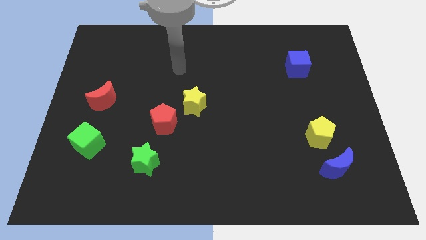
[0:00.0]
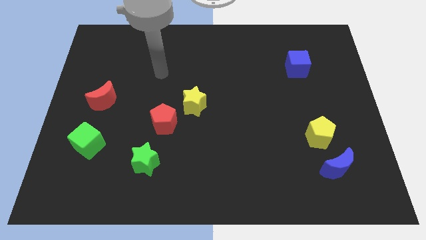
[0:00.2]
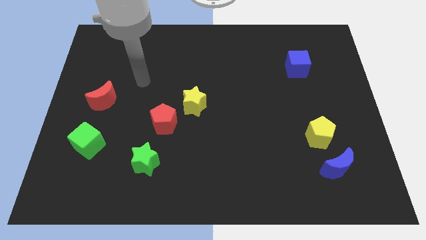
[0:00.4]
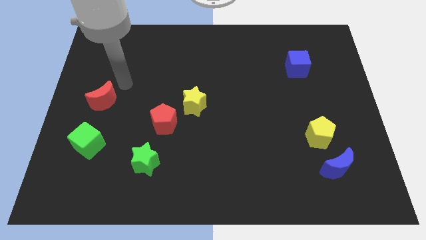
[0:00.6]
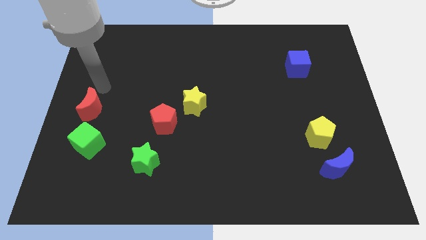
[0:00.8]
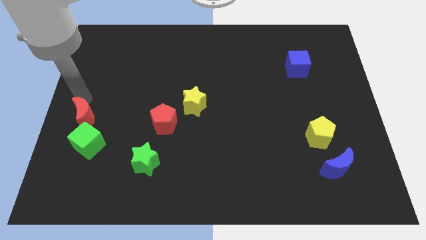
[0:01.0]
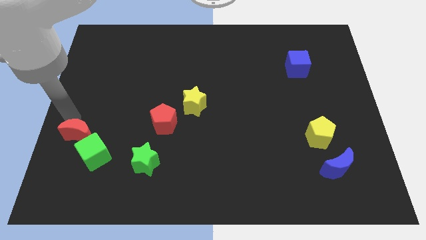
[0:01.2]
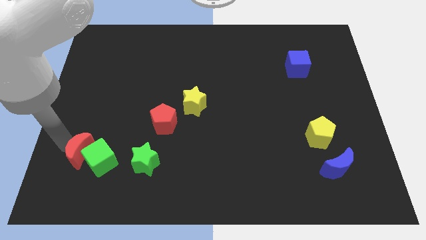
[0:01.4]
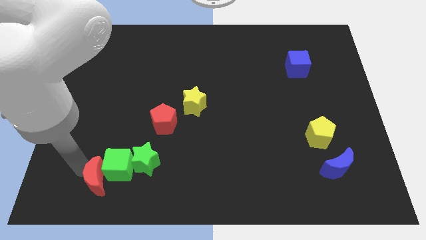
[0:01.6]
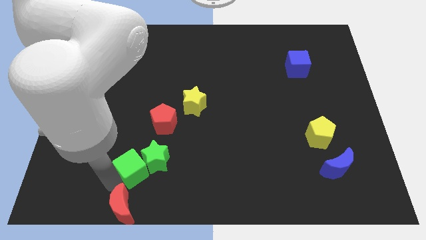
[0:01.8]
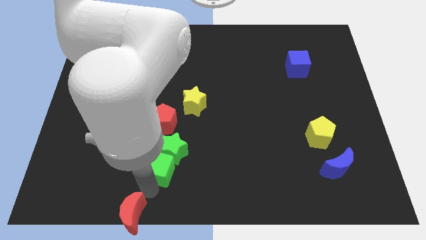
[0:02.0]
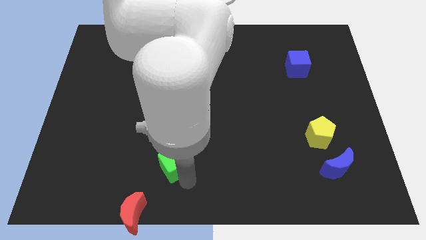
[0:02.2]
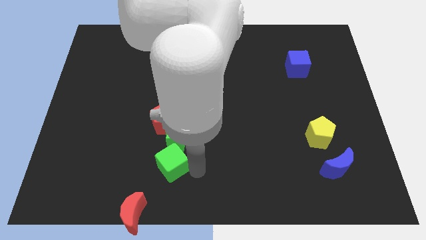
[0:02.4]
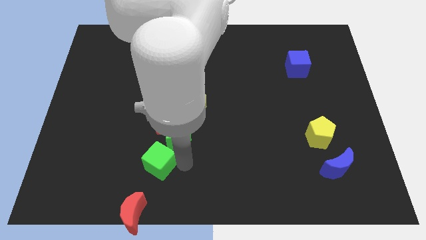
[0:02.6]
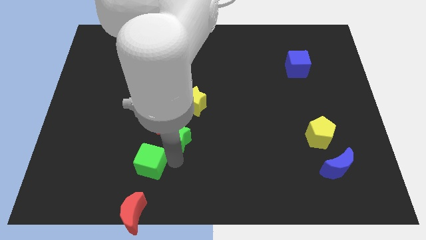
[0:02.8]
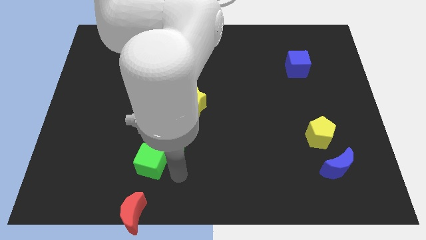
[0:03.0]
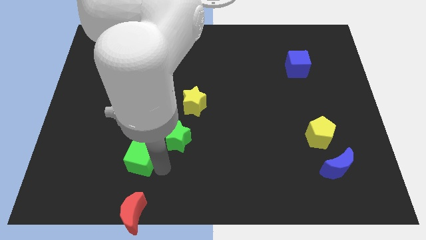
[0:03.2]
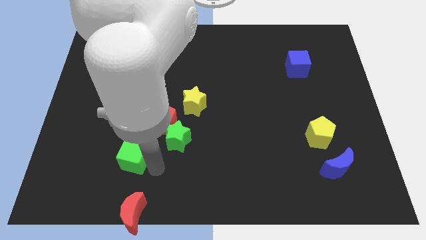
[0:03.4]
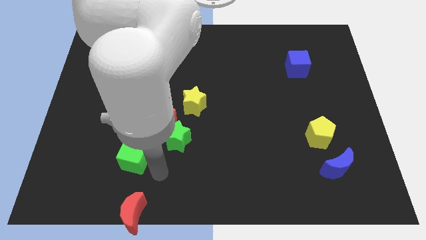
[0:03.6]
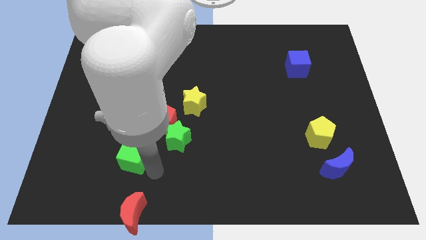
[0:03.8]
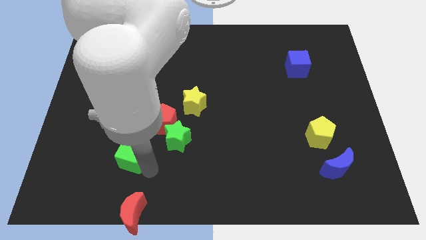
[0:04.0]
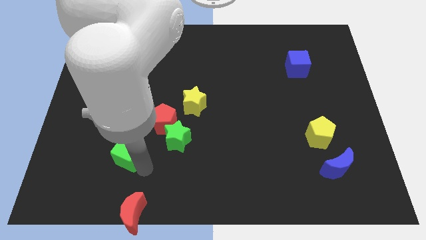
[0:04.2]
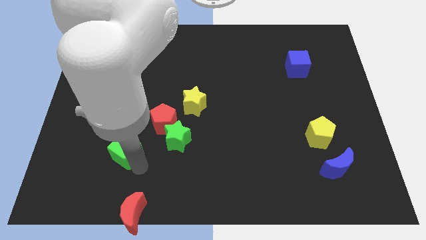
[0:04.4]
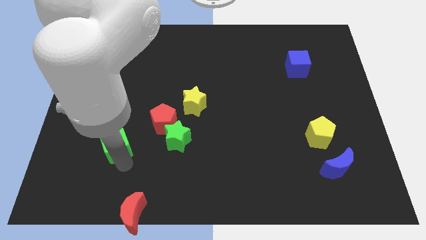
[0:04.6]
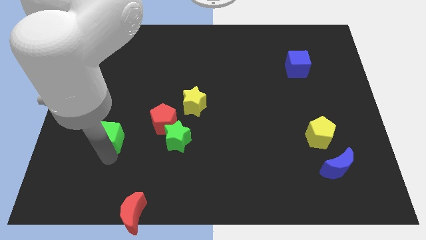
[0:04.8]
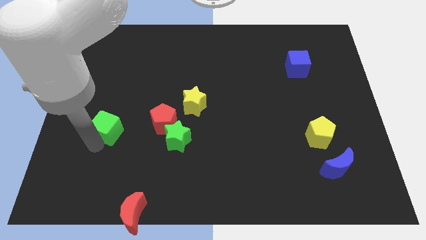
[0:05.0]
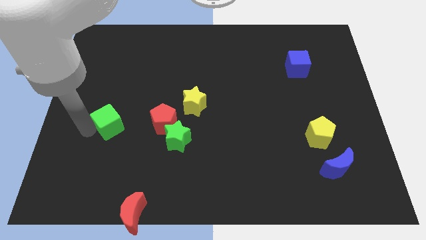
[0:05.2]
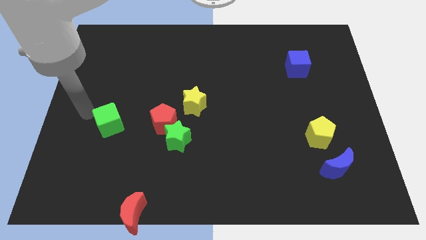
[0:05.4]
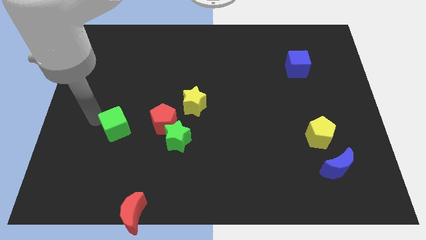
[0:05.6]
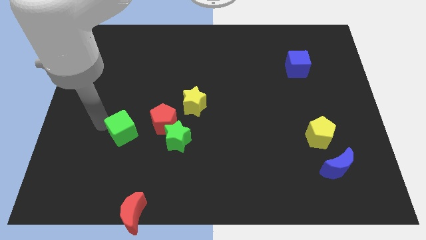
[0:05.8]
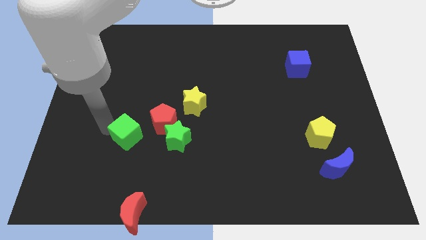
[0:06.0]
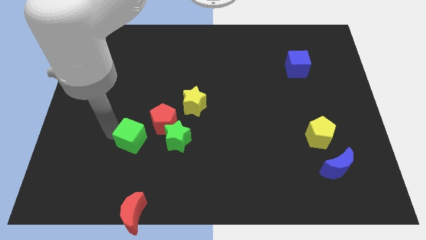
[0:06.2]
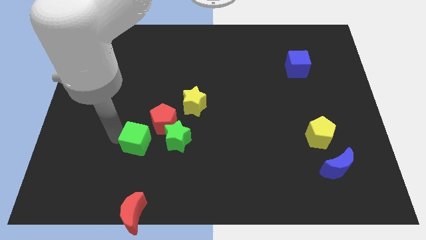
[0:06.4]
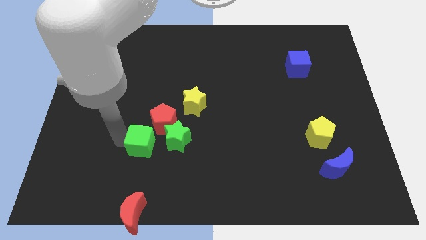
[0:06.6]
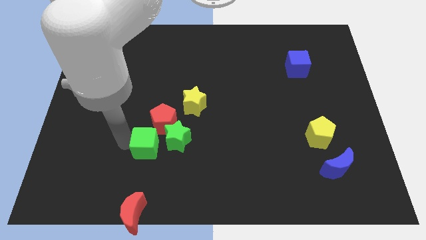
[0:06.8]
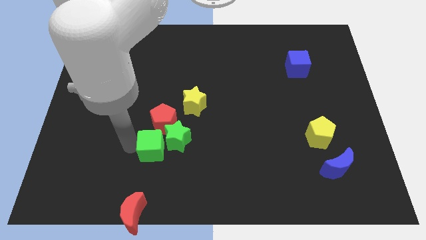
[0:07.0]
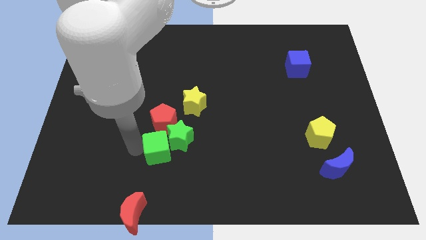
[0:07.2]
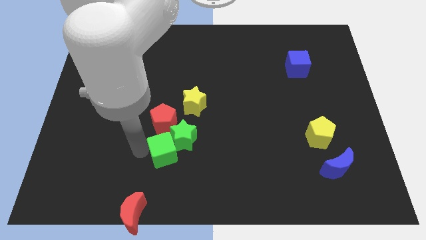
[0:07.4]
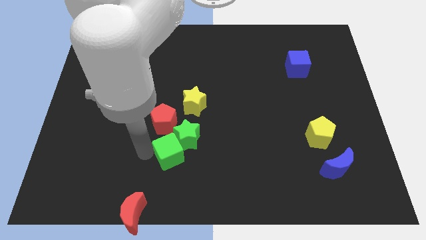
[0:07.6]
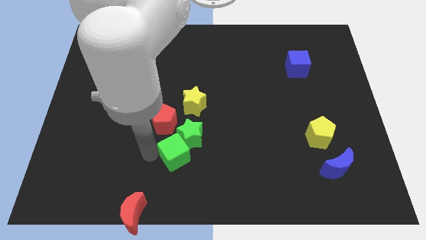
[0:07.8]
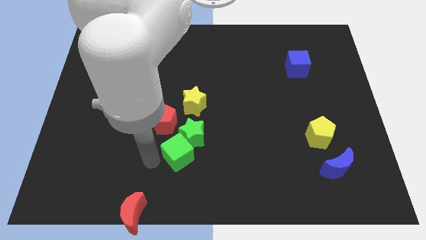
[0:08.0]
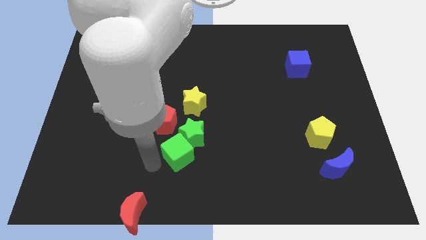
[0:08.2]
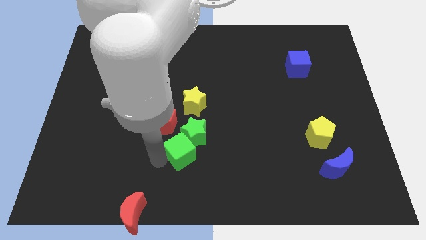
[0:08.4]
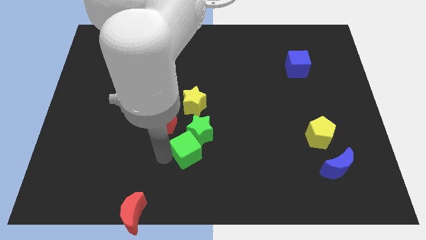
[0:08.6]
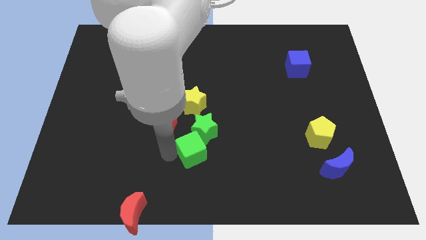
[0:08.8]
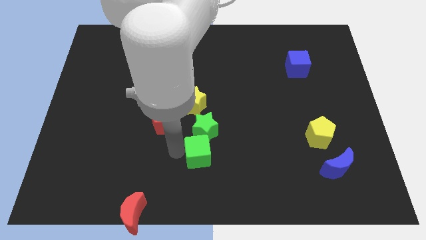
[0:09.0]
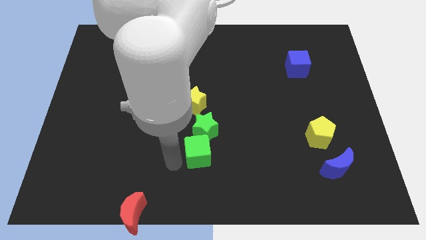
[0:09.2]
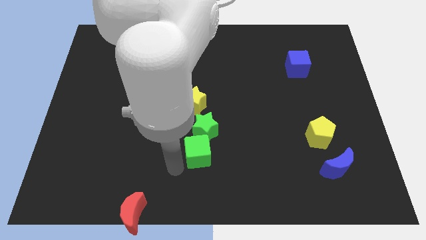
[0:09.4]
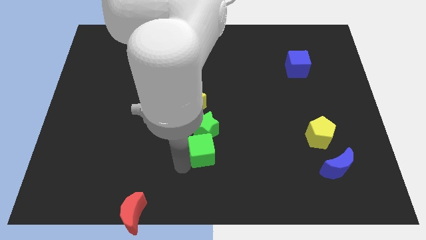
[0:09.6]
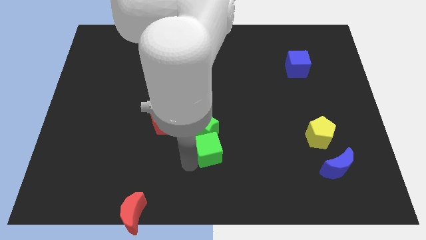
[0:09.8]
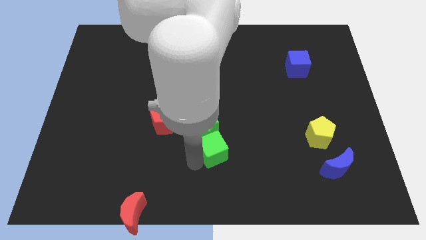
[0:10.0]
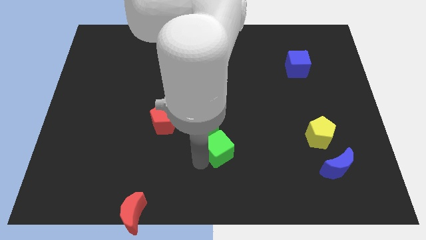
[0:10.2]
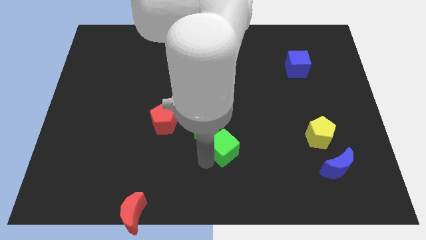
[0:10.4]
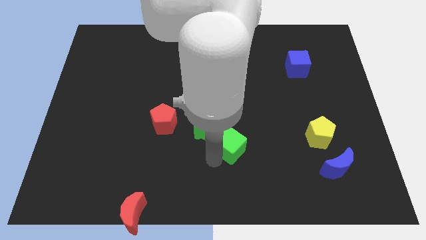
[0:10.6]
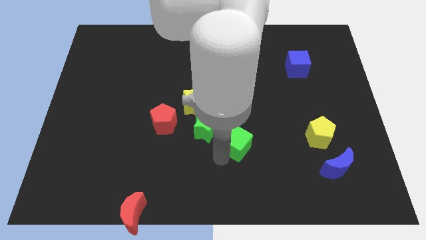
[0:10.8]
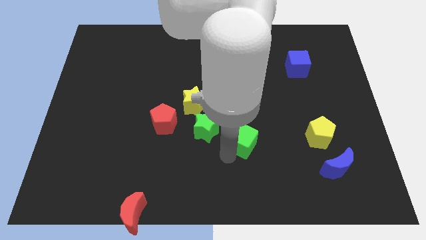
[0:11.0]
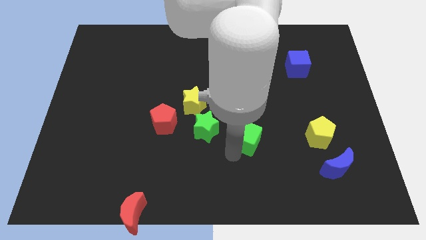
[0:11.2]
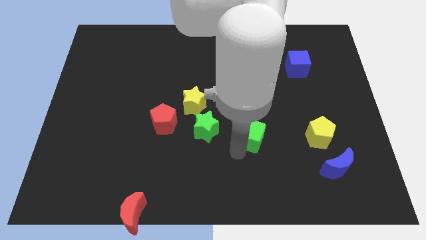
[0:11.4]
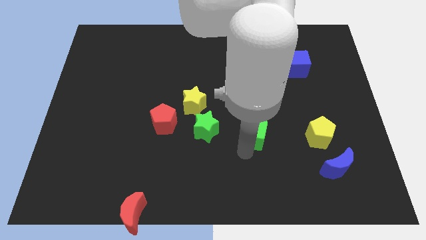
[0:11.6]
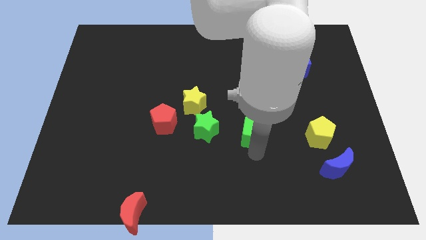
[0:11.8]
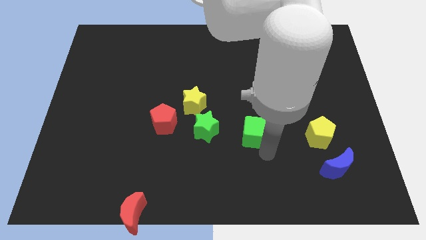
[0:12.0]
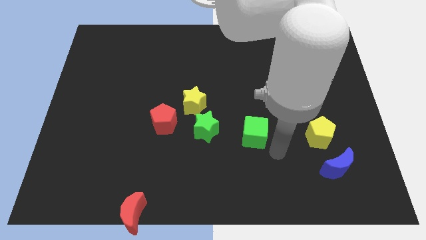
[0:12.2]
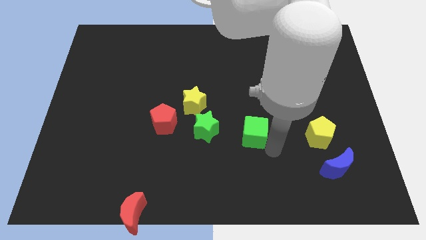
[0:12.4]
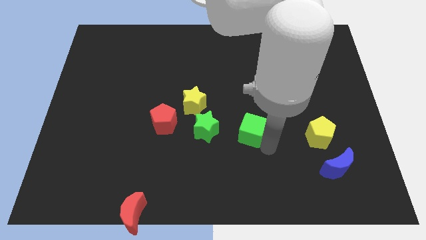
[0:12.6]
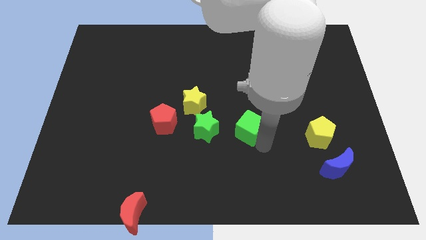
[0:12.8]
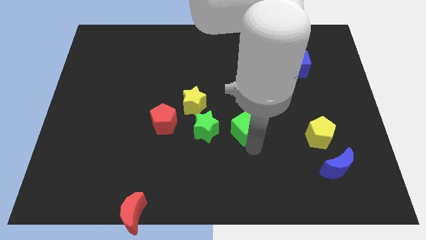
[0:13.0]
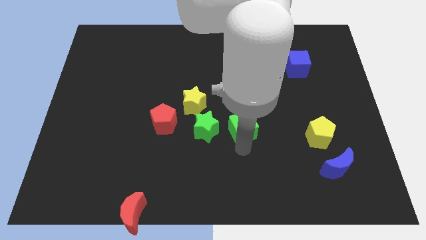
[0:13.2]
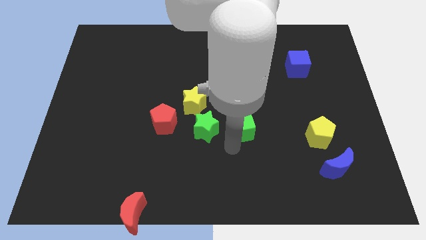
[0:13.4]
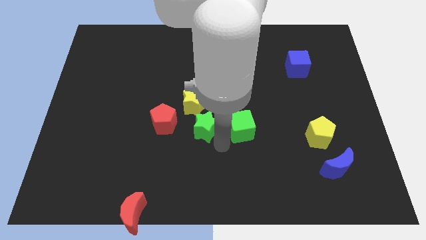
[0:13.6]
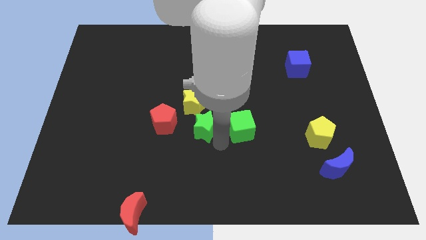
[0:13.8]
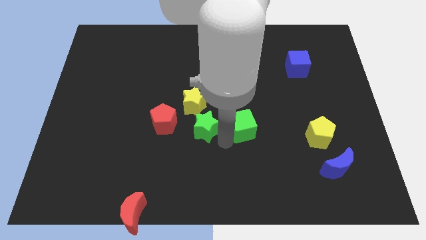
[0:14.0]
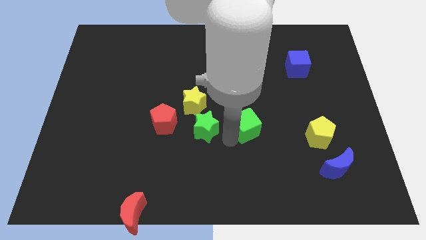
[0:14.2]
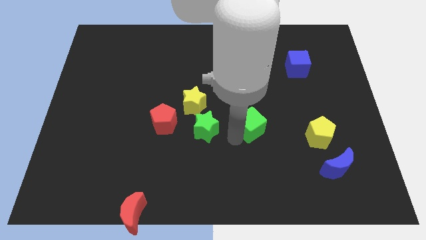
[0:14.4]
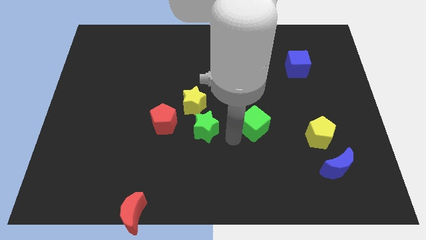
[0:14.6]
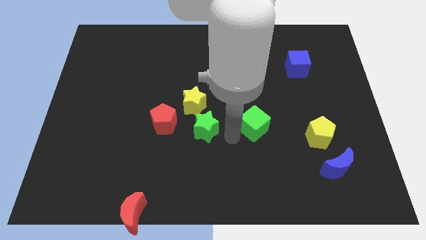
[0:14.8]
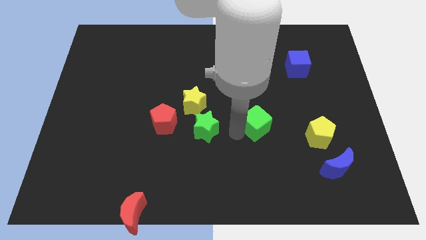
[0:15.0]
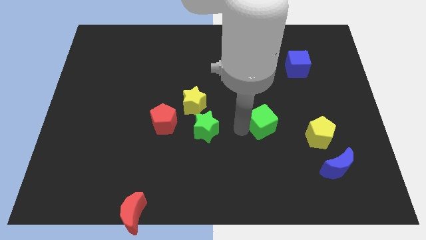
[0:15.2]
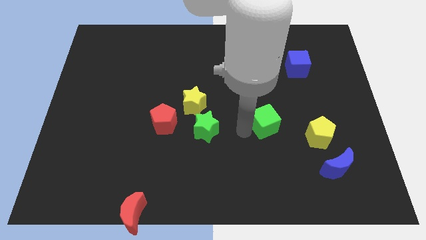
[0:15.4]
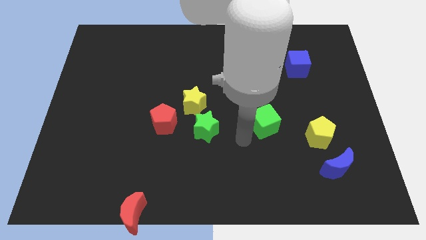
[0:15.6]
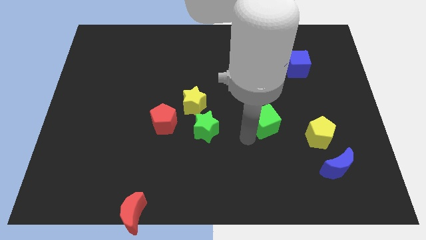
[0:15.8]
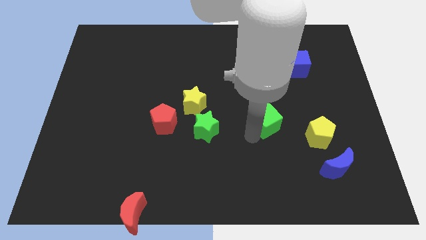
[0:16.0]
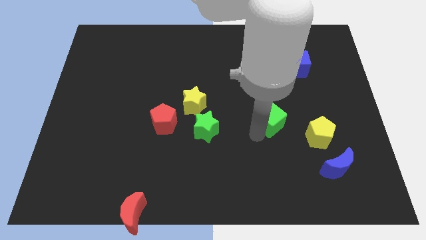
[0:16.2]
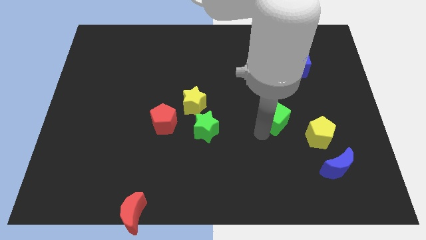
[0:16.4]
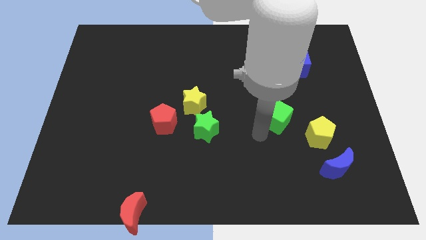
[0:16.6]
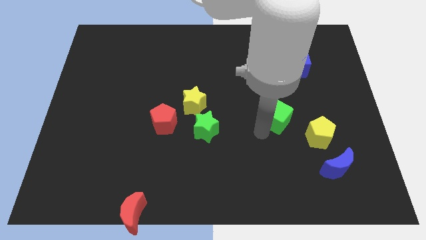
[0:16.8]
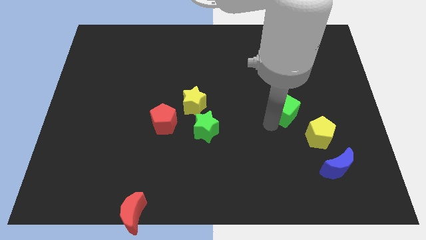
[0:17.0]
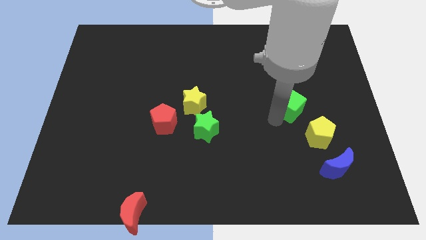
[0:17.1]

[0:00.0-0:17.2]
slide the green cube to the bottom of the blue cube
